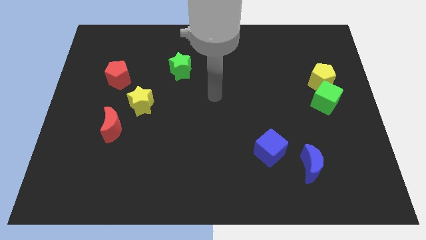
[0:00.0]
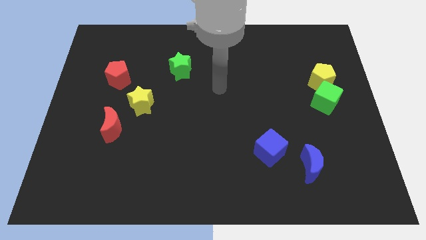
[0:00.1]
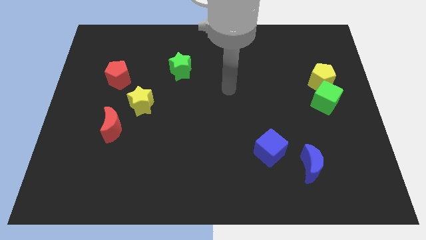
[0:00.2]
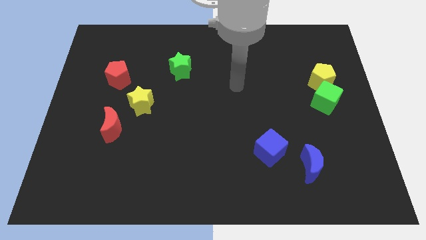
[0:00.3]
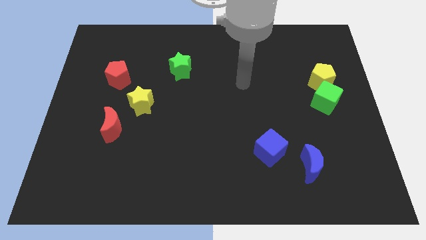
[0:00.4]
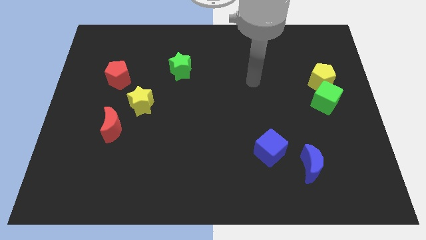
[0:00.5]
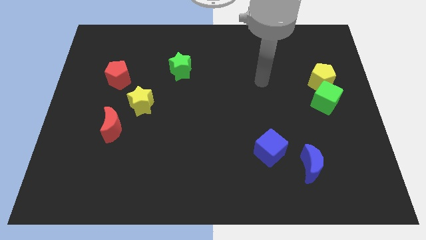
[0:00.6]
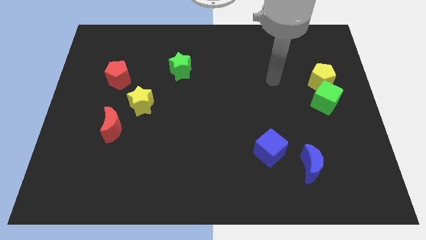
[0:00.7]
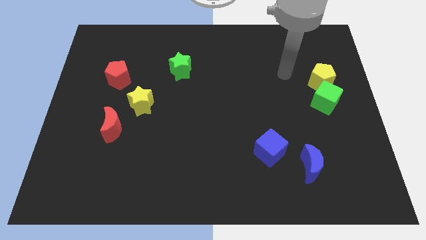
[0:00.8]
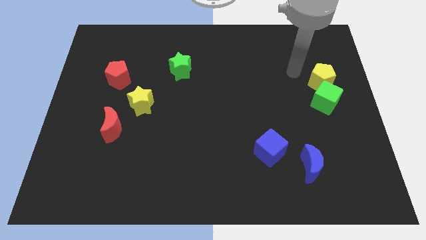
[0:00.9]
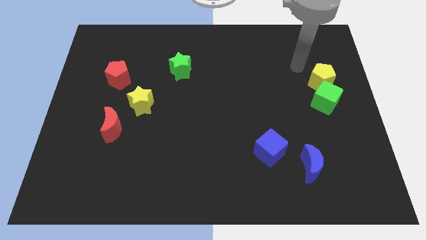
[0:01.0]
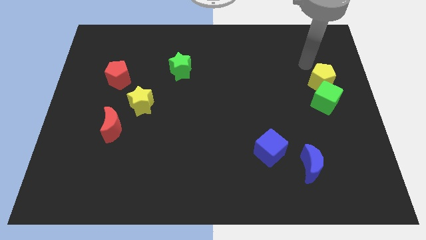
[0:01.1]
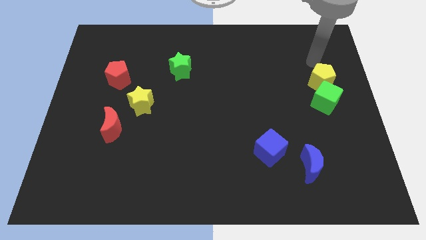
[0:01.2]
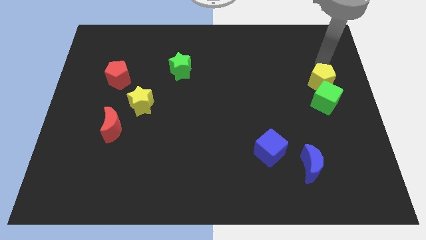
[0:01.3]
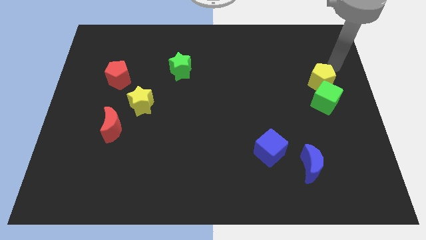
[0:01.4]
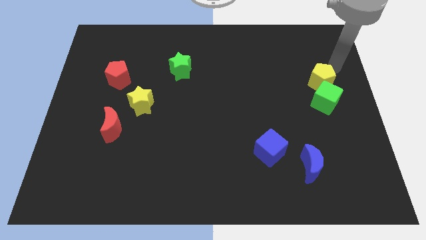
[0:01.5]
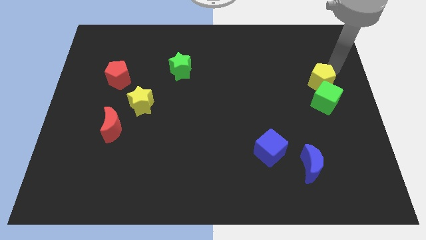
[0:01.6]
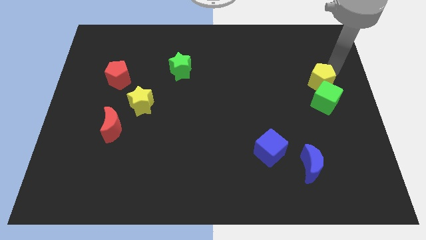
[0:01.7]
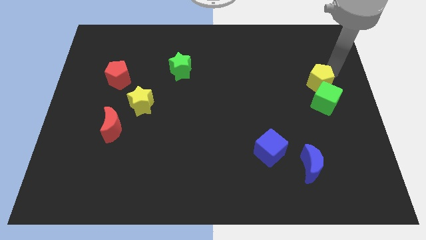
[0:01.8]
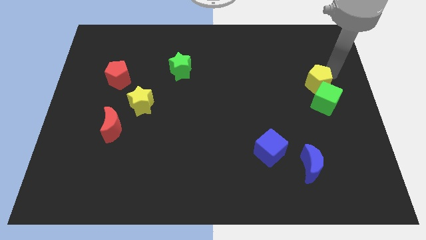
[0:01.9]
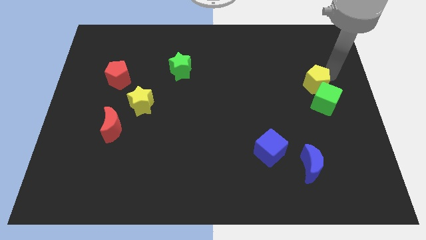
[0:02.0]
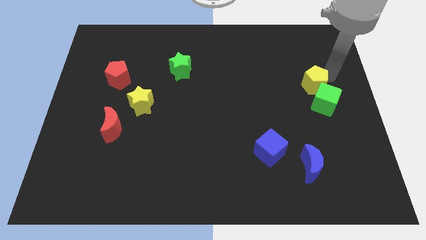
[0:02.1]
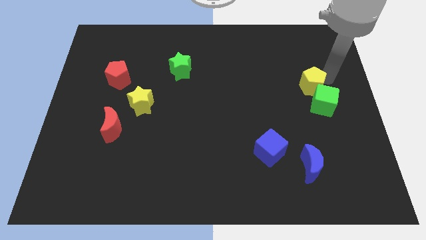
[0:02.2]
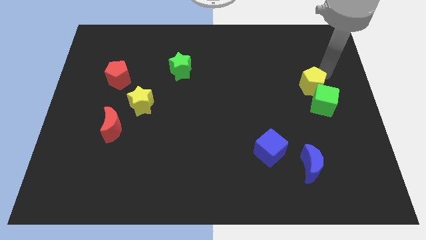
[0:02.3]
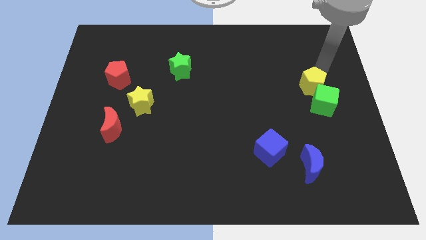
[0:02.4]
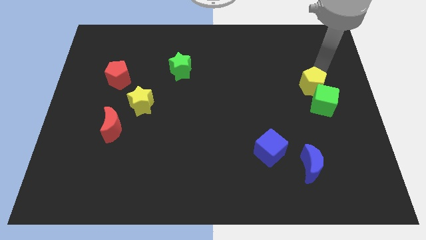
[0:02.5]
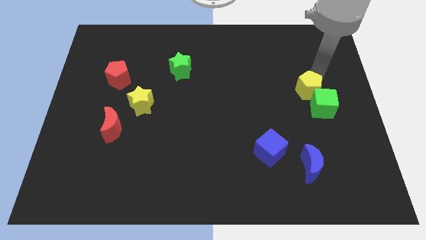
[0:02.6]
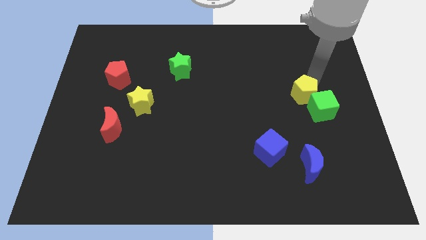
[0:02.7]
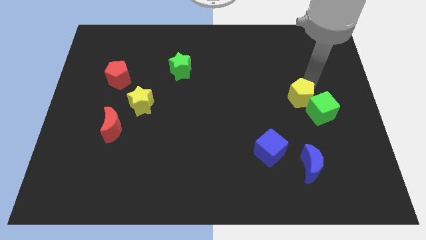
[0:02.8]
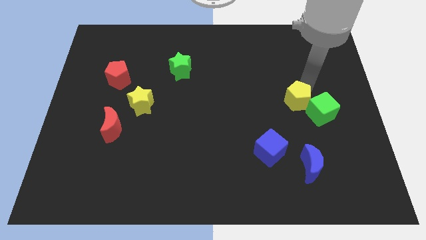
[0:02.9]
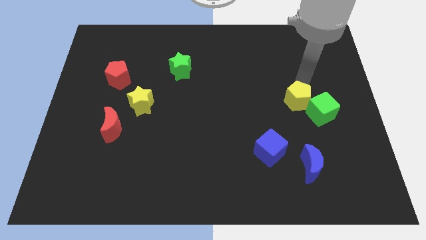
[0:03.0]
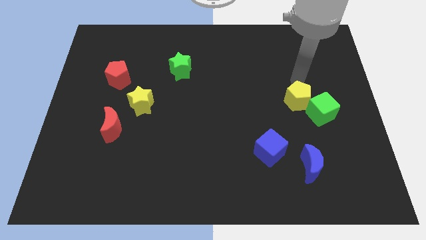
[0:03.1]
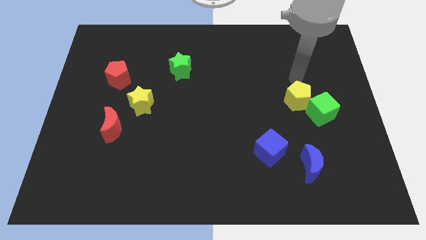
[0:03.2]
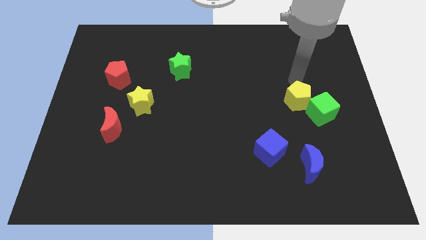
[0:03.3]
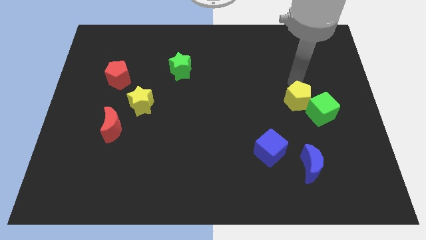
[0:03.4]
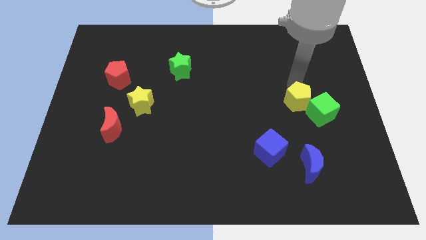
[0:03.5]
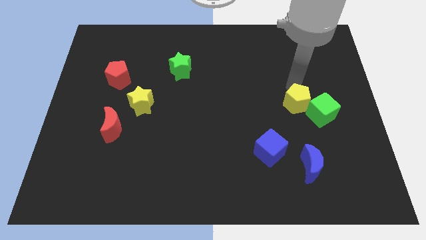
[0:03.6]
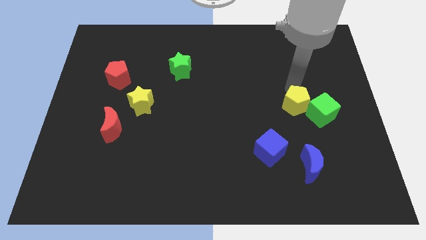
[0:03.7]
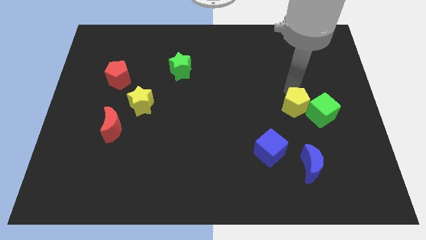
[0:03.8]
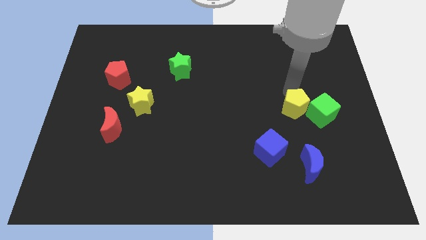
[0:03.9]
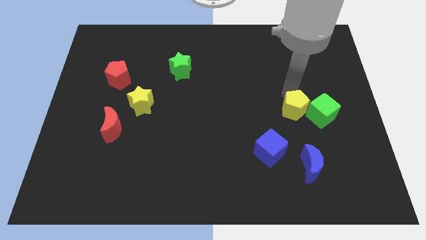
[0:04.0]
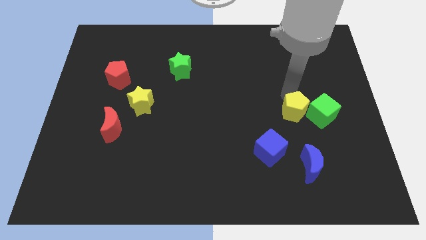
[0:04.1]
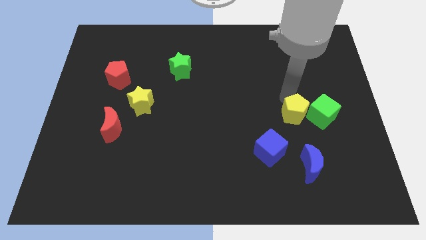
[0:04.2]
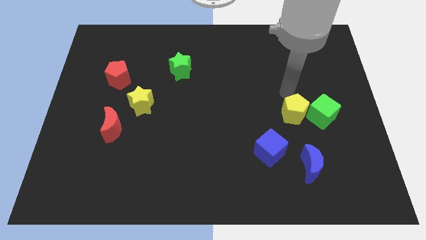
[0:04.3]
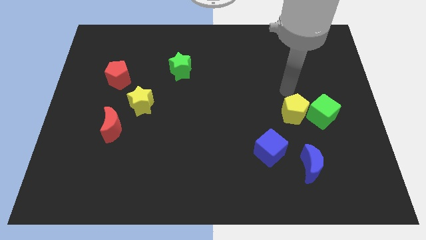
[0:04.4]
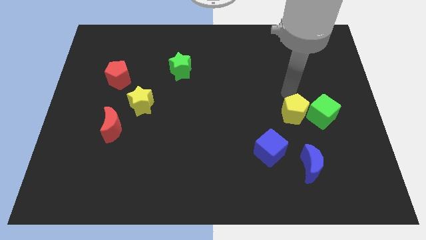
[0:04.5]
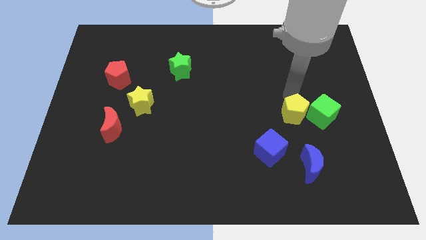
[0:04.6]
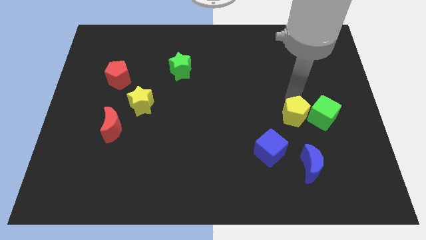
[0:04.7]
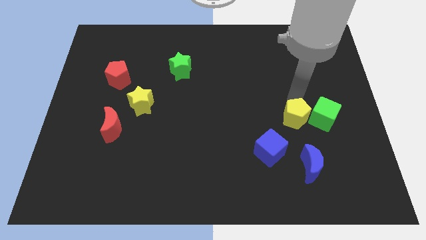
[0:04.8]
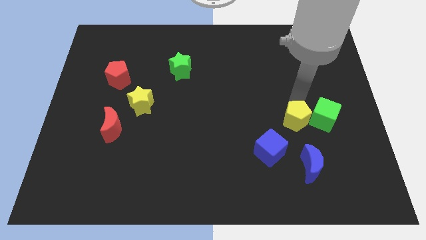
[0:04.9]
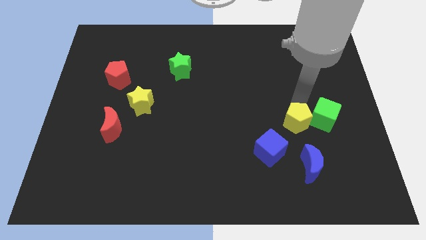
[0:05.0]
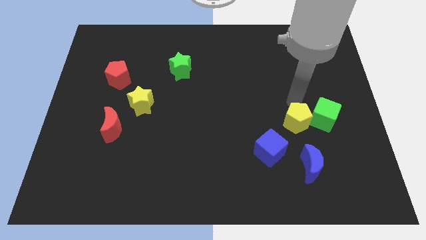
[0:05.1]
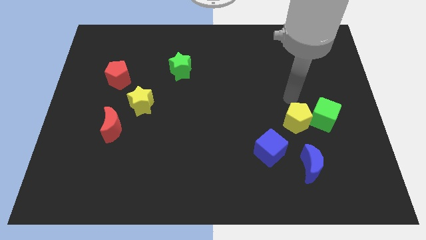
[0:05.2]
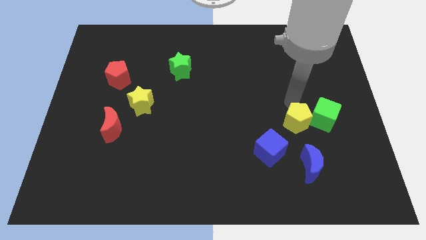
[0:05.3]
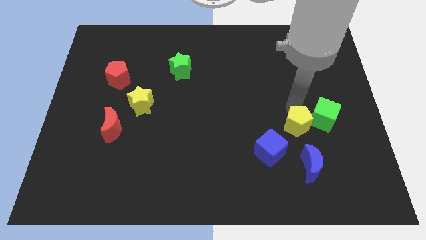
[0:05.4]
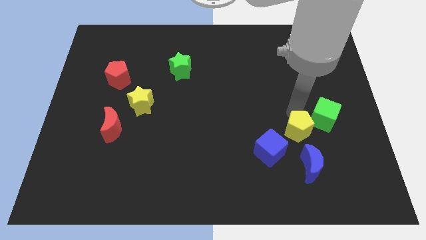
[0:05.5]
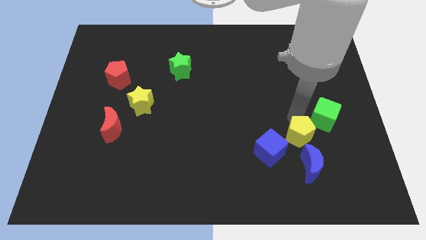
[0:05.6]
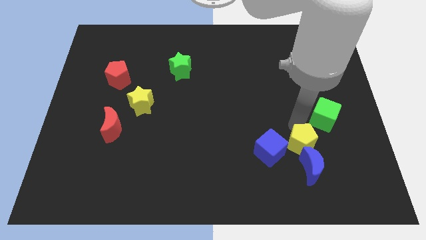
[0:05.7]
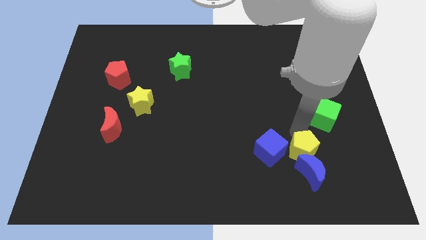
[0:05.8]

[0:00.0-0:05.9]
push the yellow pentagon towards the blue moon

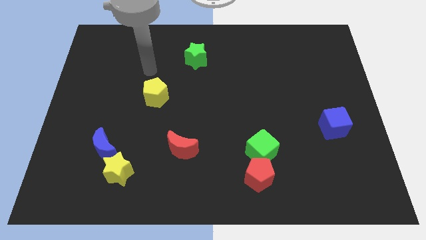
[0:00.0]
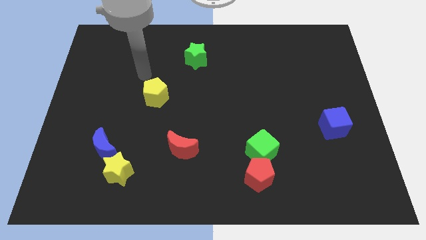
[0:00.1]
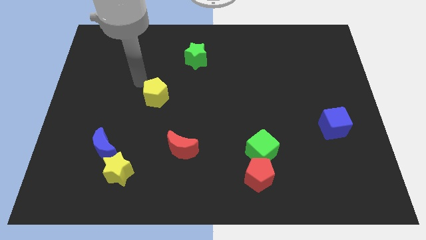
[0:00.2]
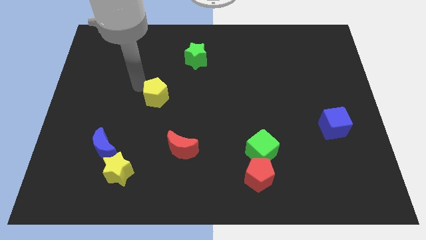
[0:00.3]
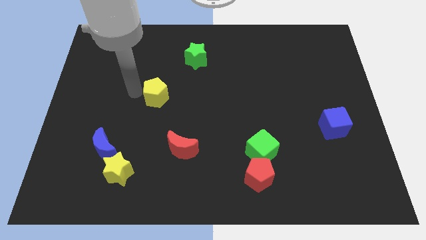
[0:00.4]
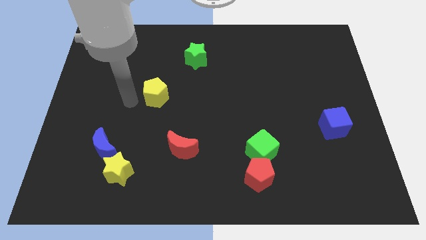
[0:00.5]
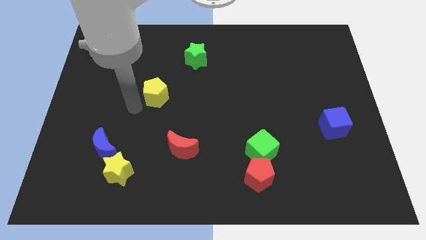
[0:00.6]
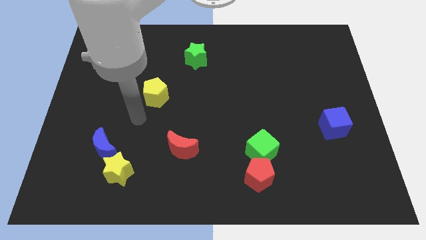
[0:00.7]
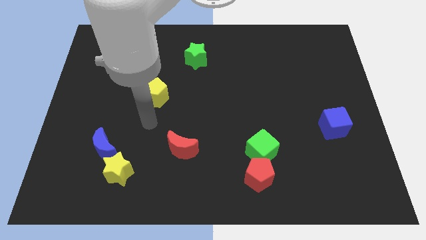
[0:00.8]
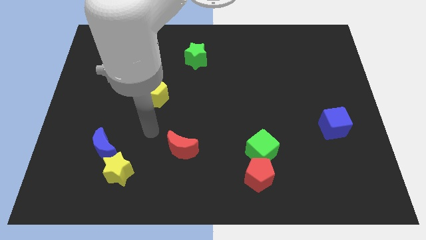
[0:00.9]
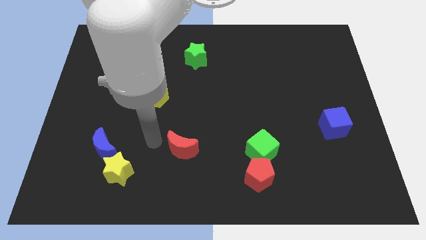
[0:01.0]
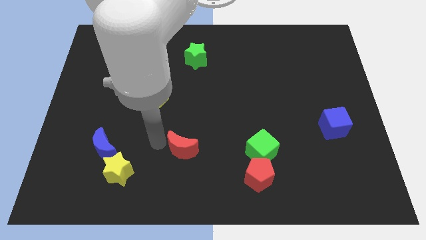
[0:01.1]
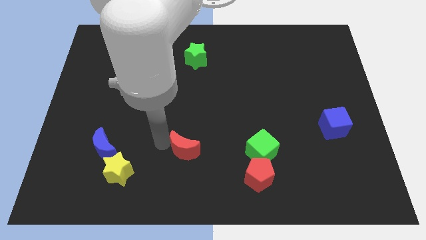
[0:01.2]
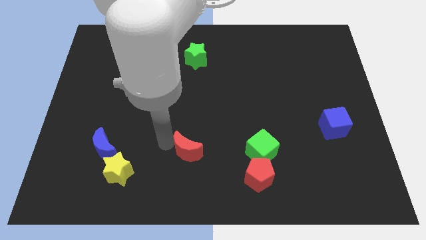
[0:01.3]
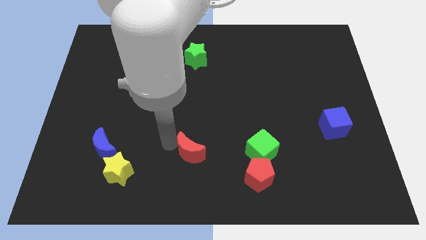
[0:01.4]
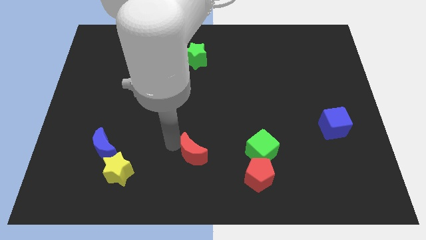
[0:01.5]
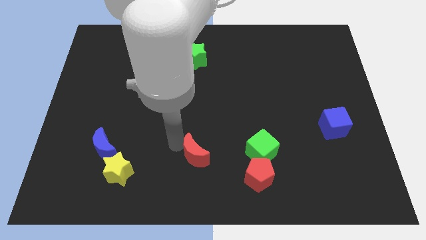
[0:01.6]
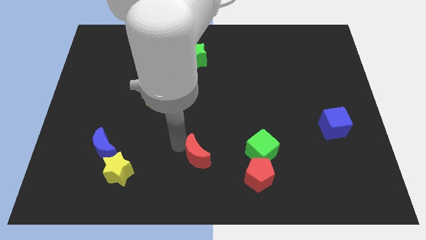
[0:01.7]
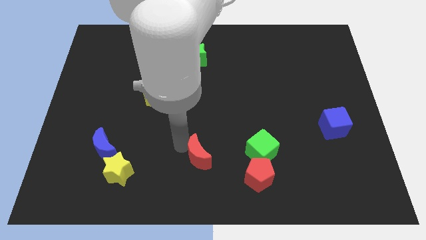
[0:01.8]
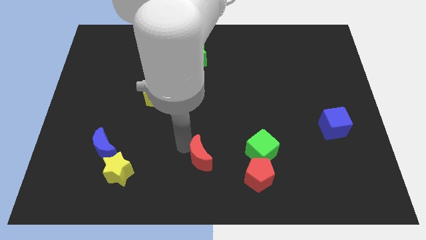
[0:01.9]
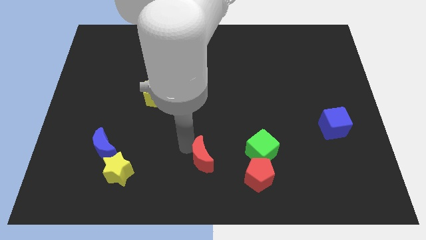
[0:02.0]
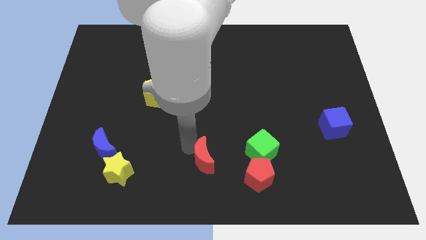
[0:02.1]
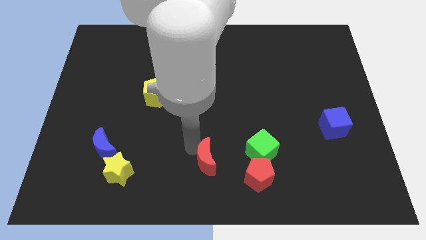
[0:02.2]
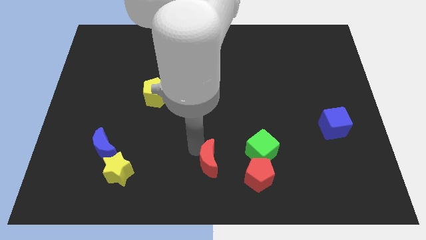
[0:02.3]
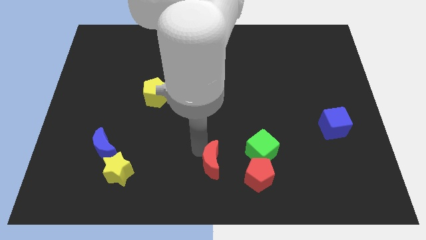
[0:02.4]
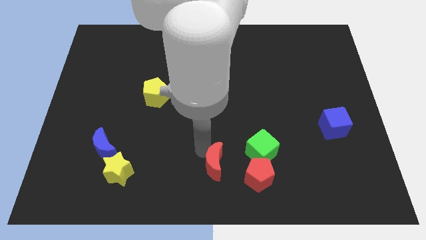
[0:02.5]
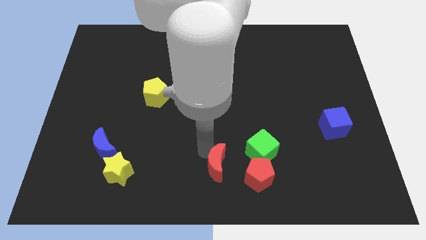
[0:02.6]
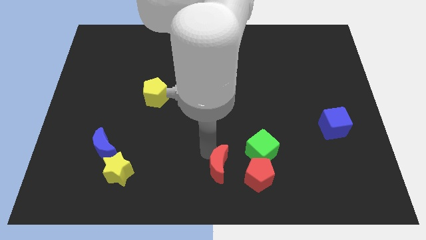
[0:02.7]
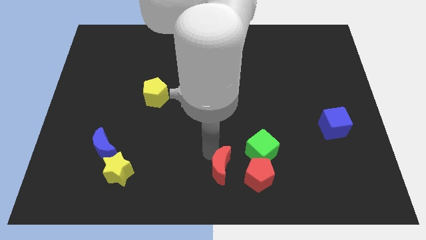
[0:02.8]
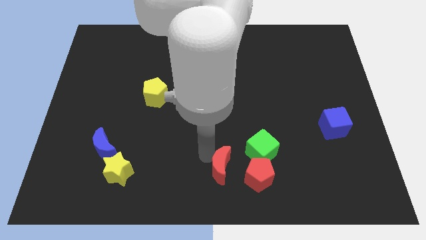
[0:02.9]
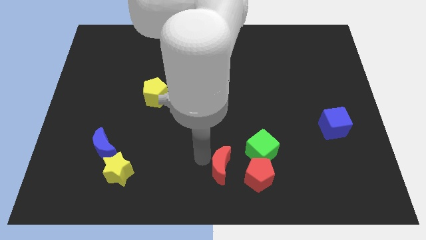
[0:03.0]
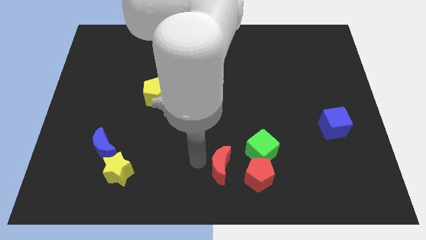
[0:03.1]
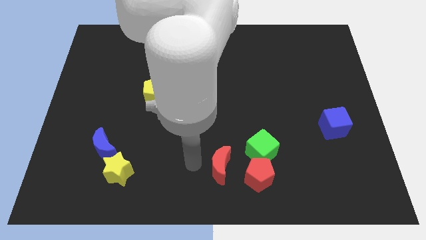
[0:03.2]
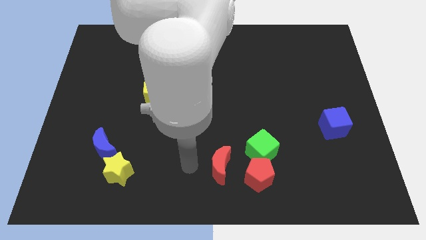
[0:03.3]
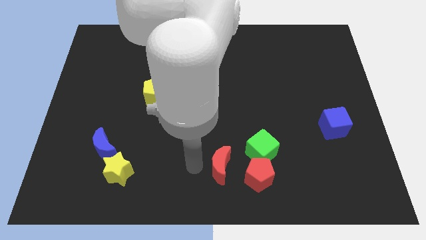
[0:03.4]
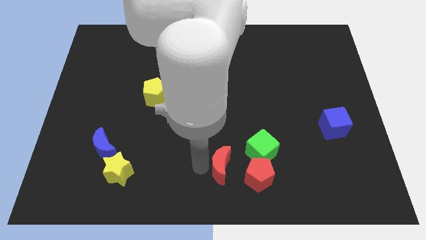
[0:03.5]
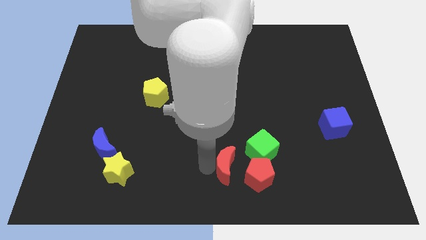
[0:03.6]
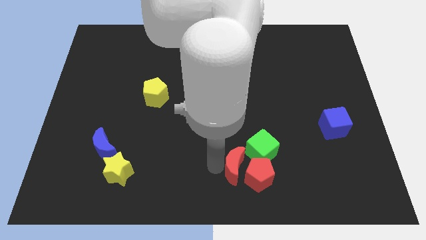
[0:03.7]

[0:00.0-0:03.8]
move the red moon towards the red pentagon
